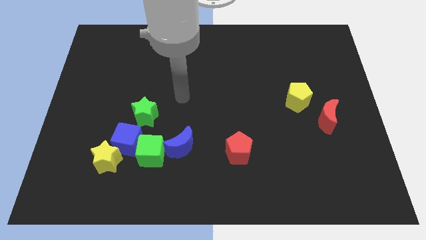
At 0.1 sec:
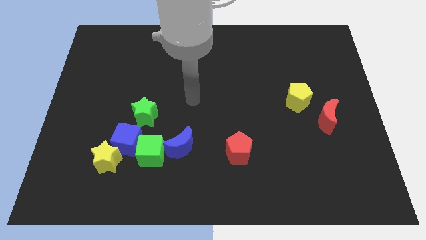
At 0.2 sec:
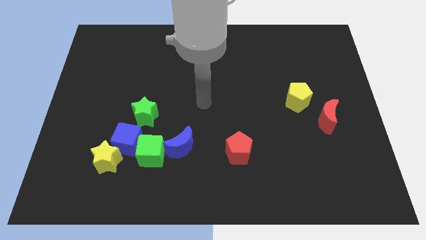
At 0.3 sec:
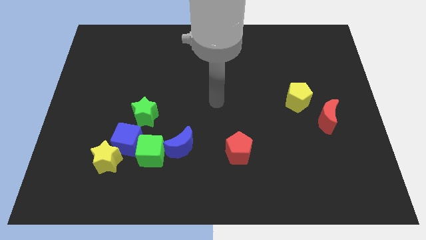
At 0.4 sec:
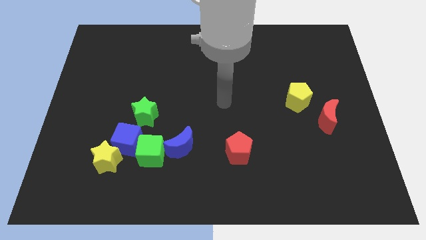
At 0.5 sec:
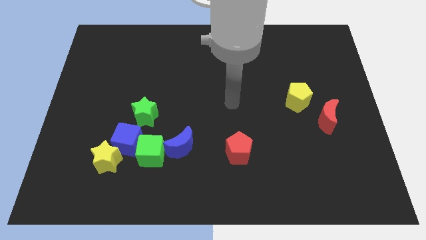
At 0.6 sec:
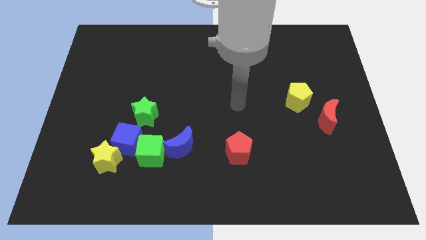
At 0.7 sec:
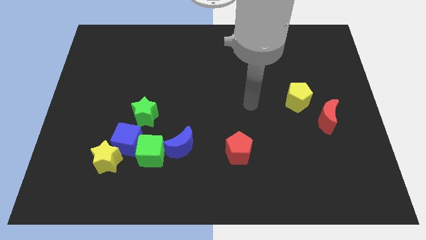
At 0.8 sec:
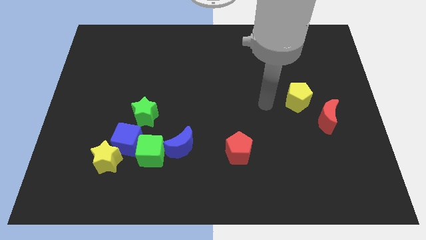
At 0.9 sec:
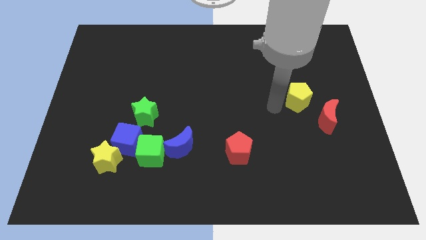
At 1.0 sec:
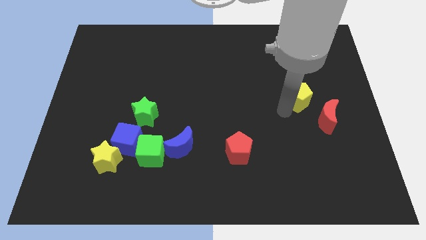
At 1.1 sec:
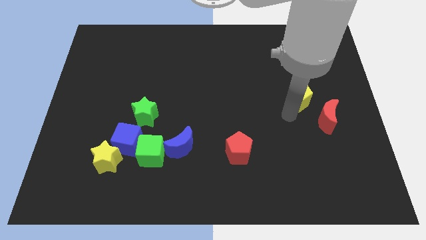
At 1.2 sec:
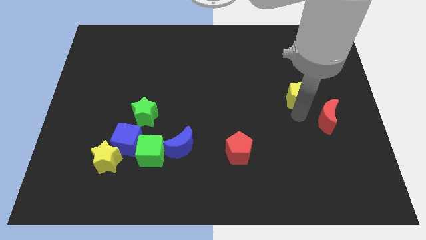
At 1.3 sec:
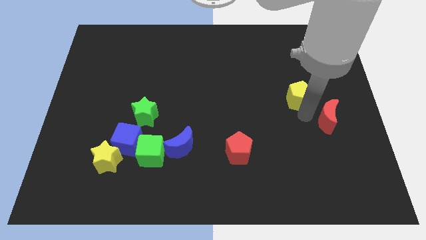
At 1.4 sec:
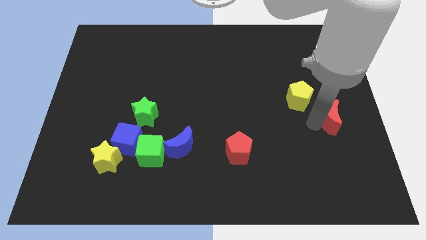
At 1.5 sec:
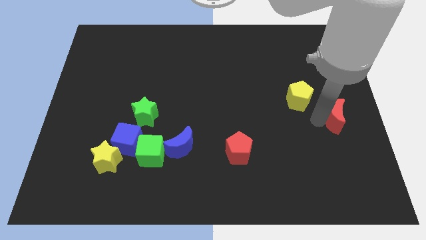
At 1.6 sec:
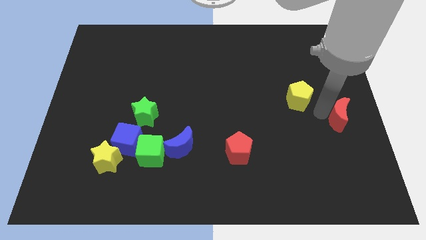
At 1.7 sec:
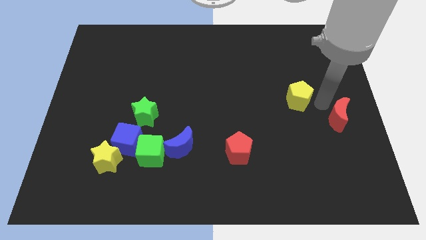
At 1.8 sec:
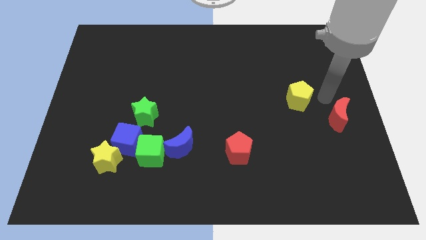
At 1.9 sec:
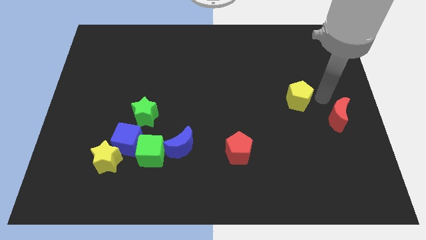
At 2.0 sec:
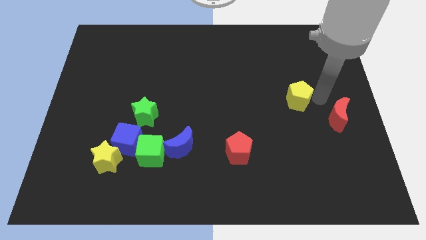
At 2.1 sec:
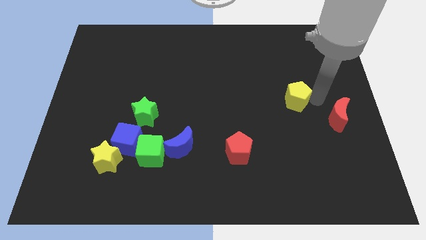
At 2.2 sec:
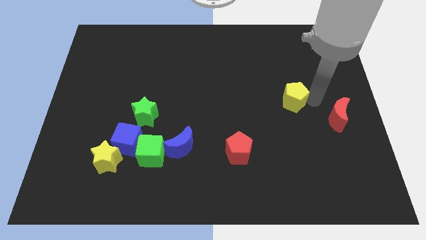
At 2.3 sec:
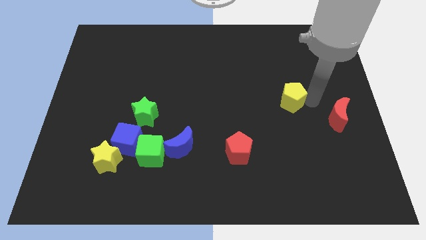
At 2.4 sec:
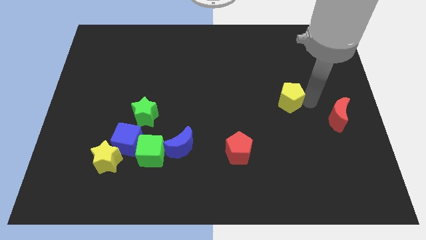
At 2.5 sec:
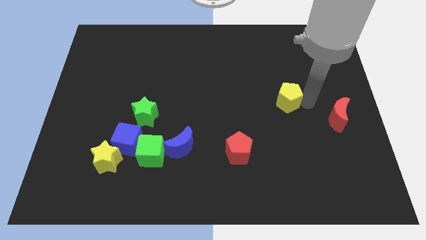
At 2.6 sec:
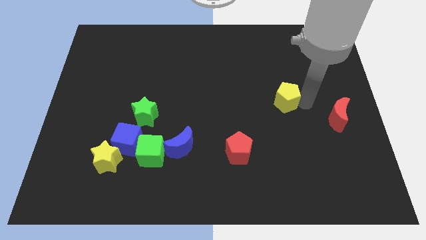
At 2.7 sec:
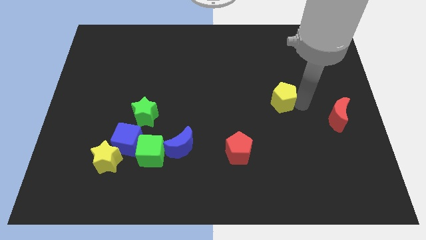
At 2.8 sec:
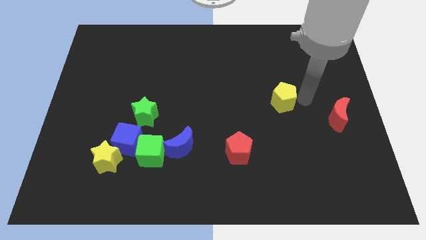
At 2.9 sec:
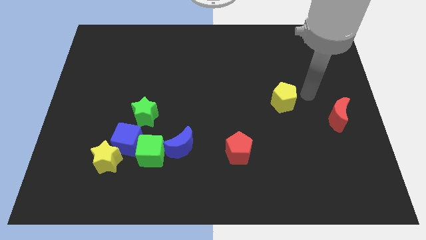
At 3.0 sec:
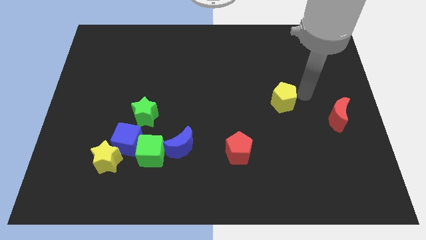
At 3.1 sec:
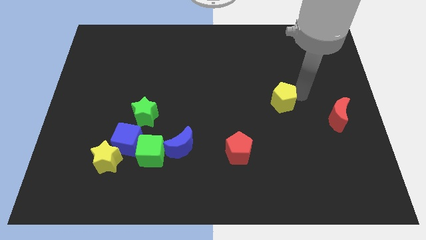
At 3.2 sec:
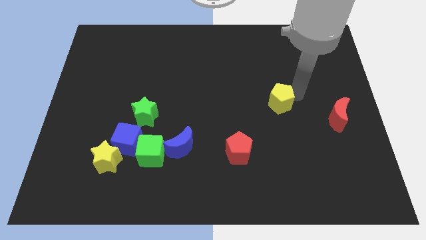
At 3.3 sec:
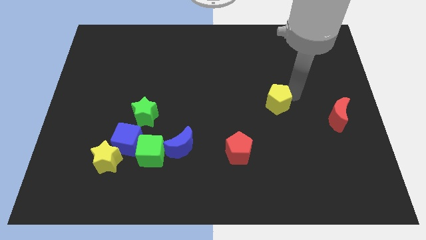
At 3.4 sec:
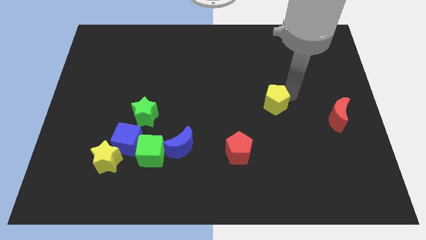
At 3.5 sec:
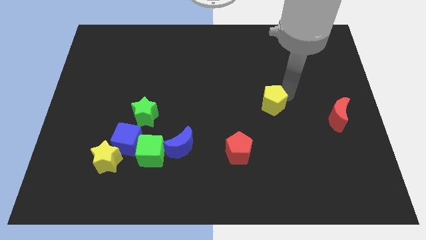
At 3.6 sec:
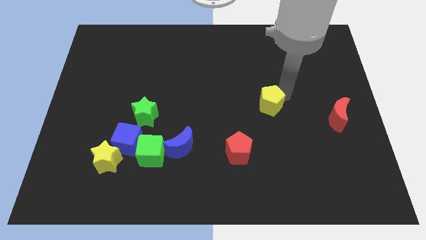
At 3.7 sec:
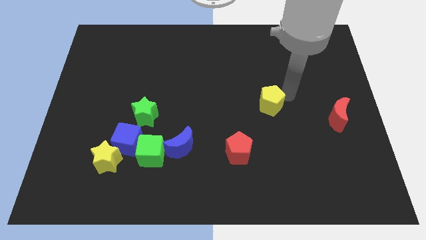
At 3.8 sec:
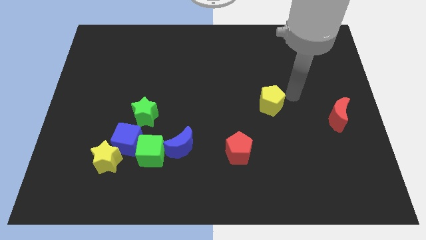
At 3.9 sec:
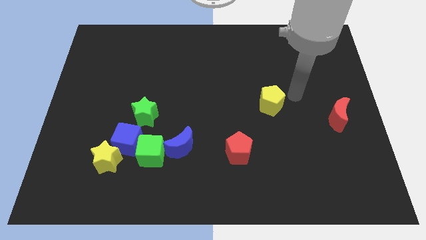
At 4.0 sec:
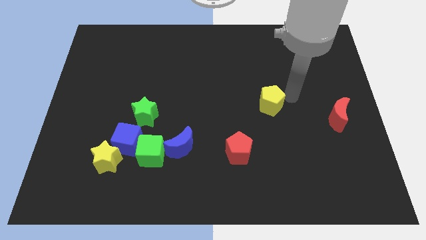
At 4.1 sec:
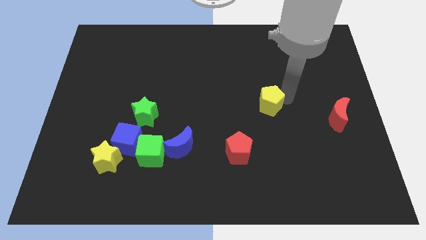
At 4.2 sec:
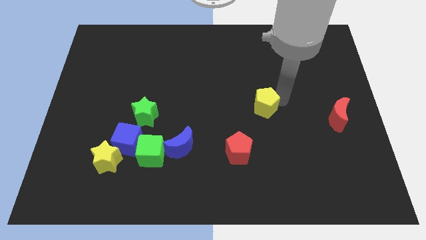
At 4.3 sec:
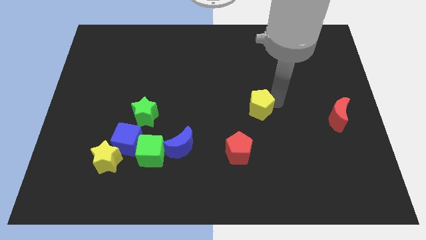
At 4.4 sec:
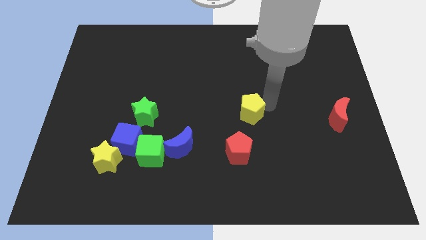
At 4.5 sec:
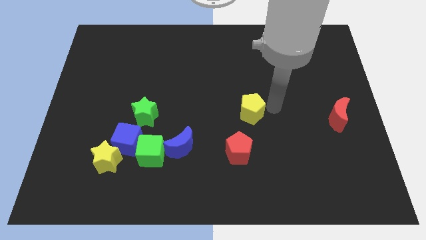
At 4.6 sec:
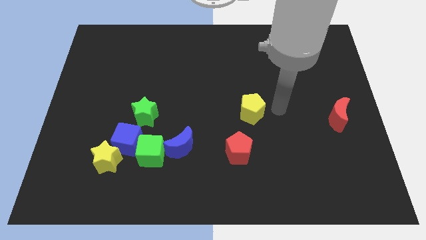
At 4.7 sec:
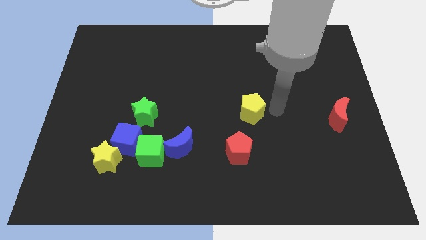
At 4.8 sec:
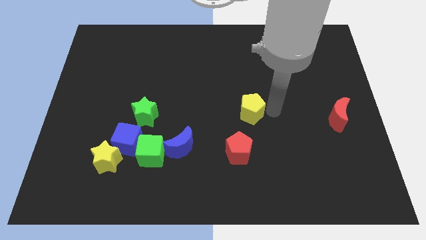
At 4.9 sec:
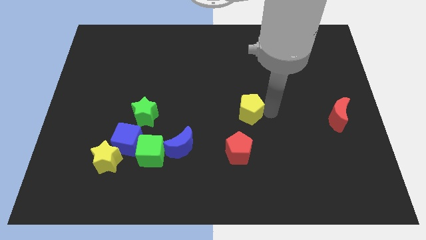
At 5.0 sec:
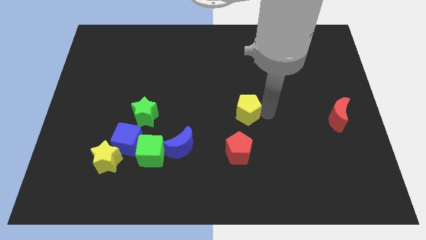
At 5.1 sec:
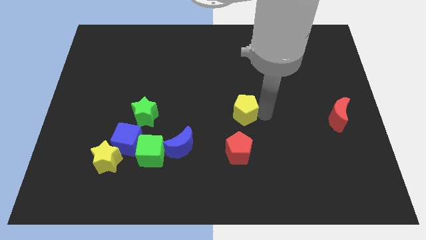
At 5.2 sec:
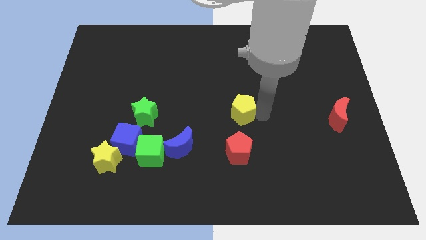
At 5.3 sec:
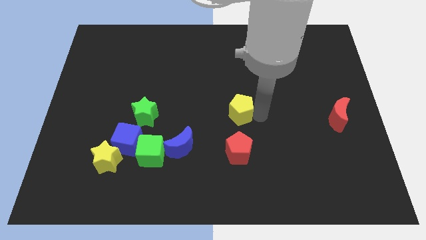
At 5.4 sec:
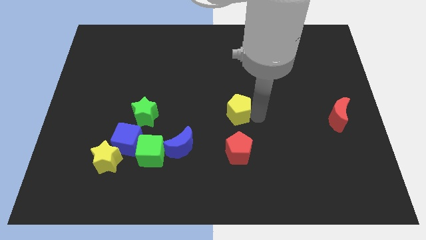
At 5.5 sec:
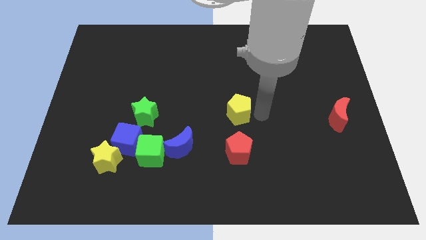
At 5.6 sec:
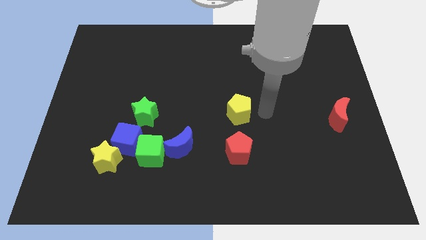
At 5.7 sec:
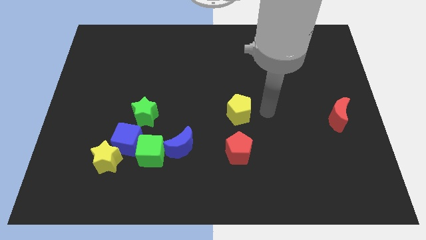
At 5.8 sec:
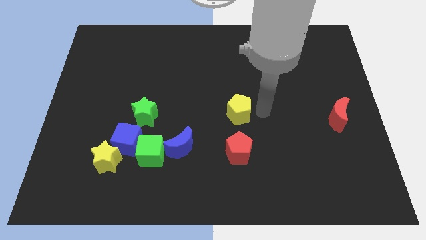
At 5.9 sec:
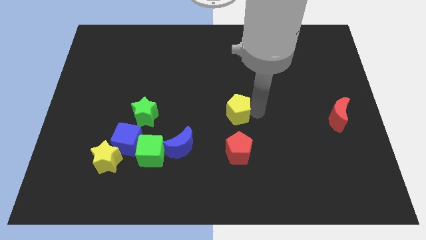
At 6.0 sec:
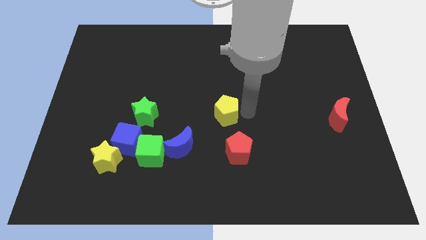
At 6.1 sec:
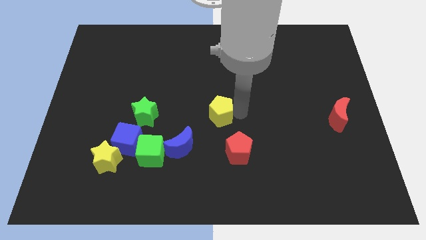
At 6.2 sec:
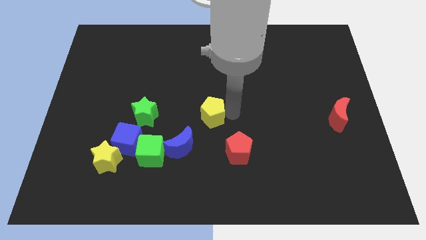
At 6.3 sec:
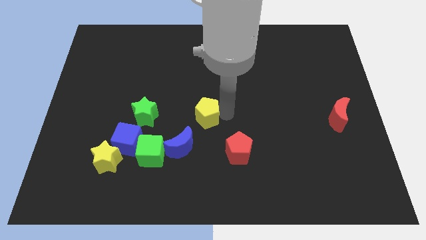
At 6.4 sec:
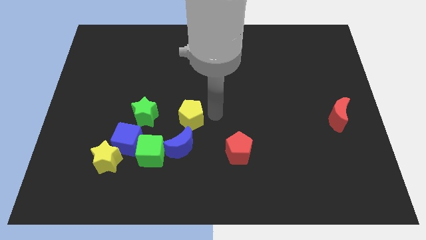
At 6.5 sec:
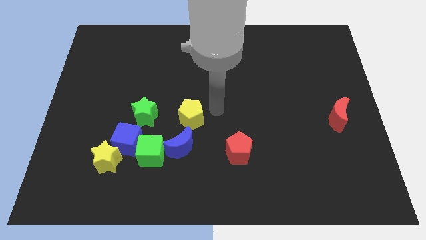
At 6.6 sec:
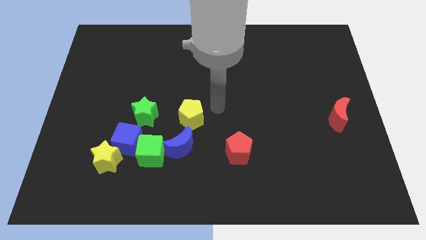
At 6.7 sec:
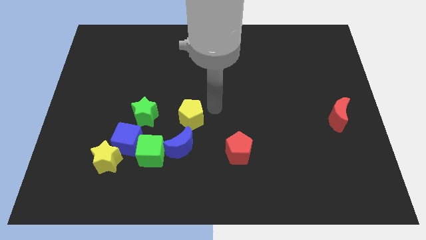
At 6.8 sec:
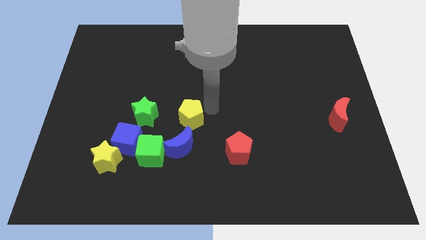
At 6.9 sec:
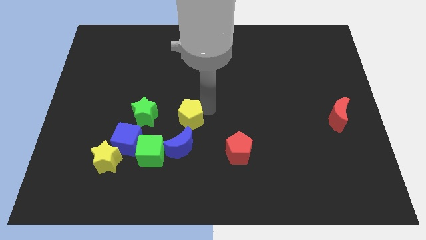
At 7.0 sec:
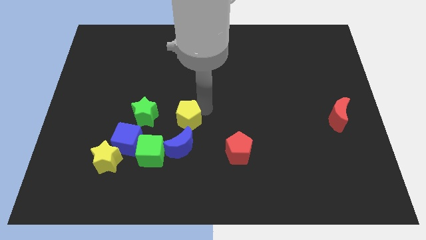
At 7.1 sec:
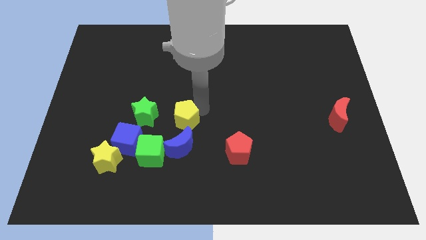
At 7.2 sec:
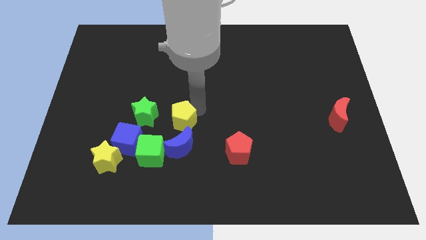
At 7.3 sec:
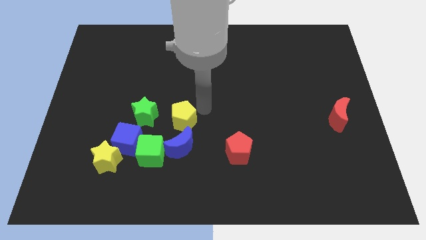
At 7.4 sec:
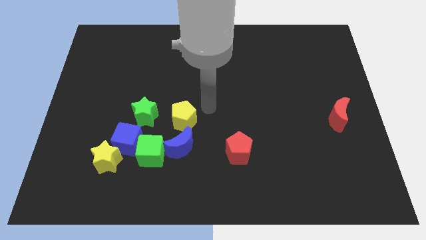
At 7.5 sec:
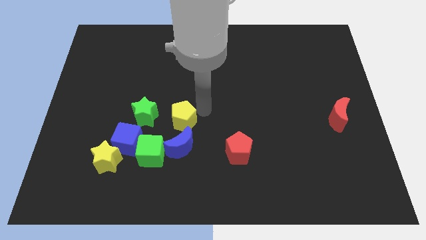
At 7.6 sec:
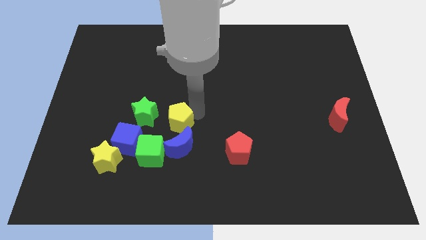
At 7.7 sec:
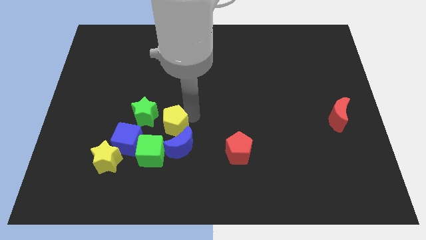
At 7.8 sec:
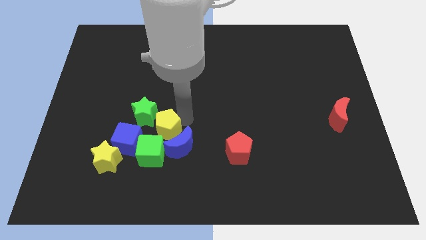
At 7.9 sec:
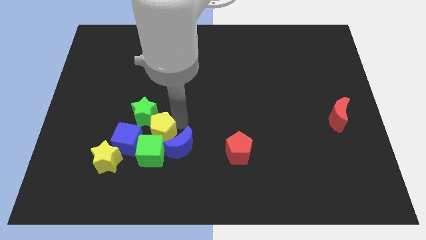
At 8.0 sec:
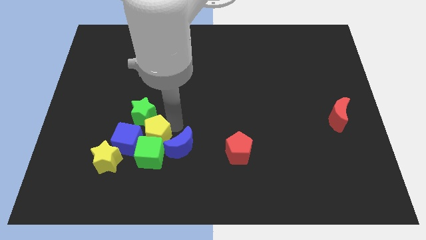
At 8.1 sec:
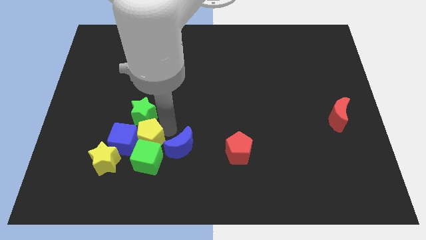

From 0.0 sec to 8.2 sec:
slide the yellow pentagon close to the blue cube
